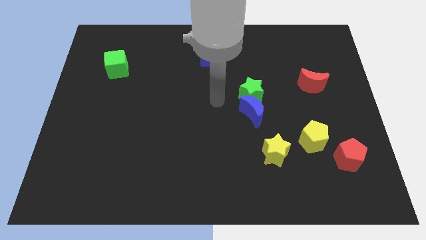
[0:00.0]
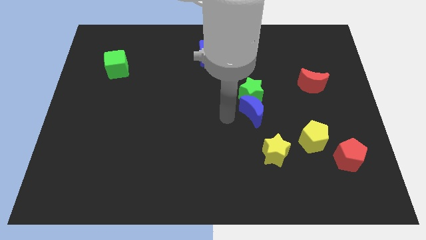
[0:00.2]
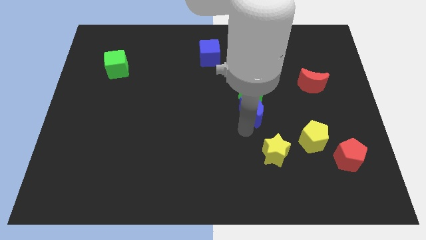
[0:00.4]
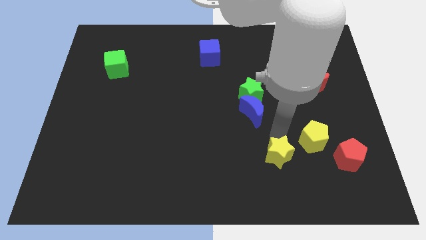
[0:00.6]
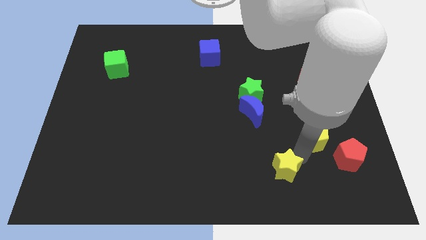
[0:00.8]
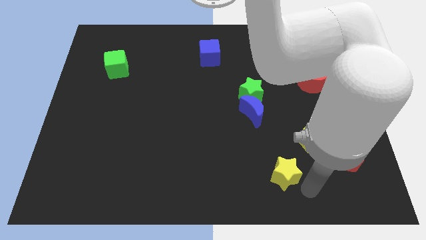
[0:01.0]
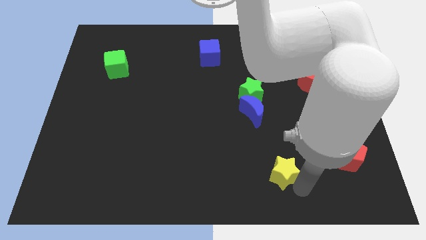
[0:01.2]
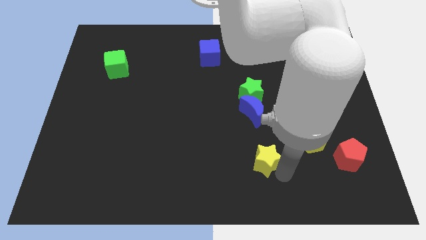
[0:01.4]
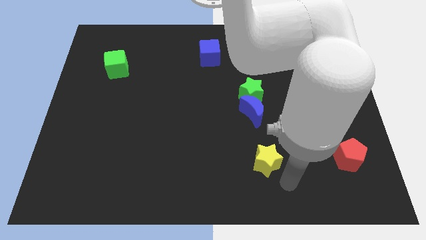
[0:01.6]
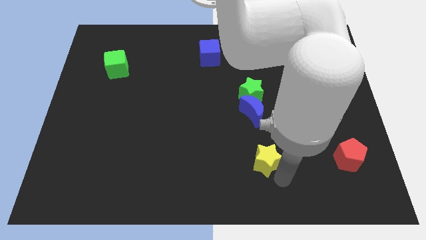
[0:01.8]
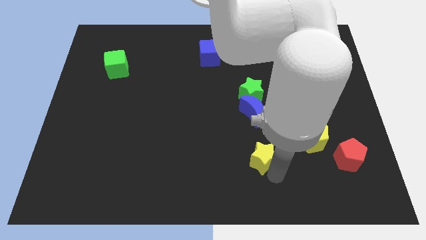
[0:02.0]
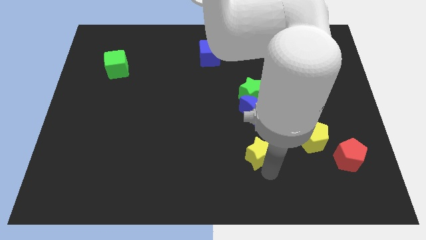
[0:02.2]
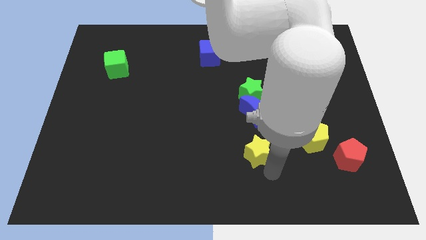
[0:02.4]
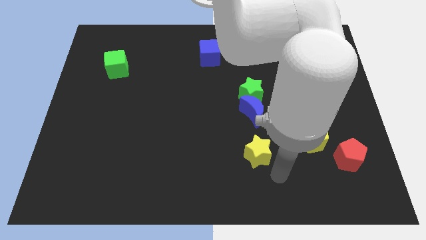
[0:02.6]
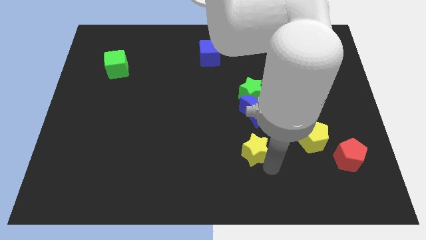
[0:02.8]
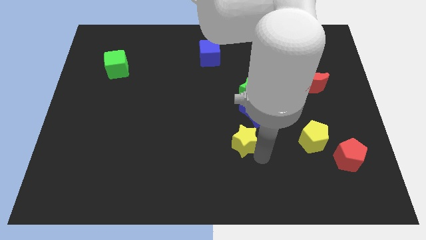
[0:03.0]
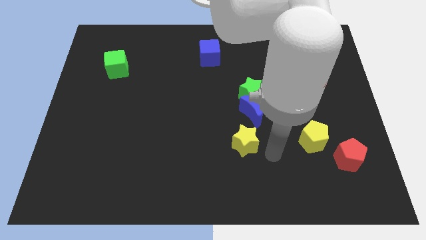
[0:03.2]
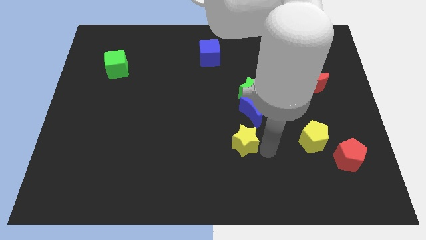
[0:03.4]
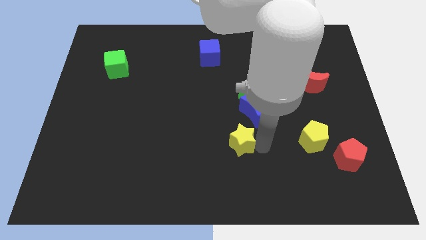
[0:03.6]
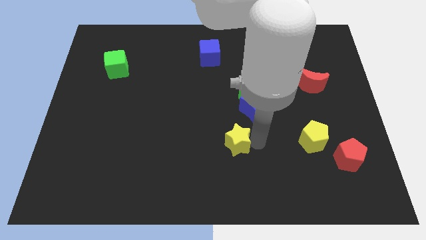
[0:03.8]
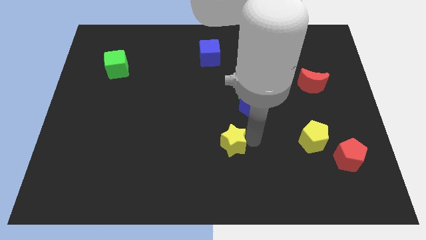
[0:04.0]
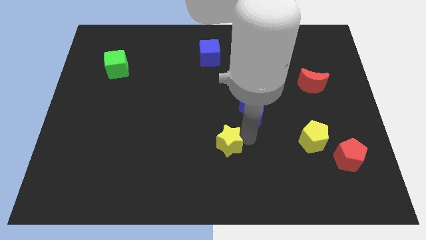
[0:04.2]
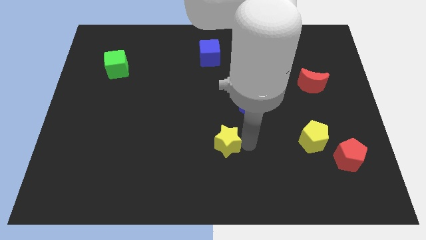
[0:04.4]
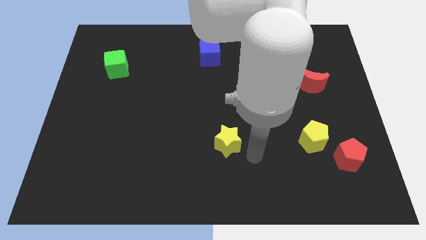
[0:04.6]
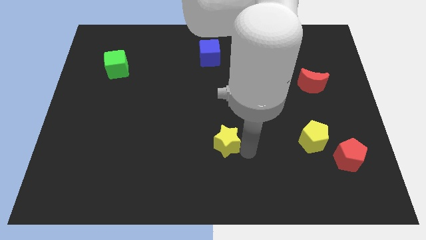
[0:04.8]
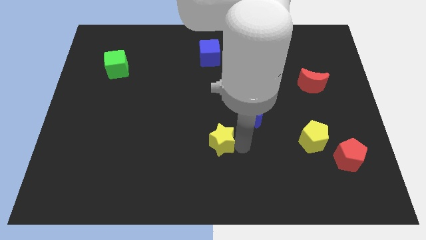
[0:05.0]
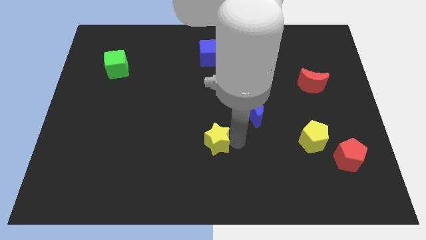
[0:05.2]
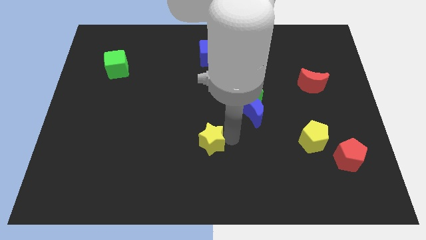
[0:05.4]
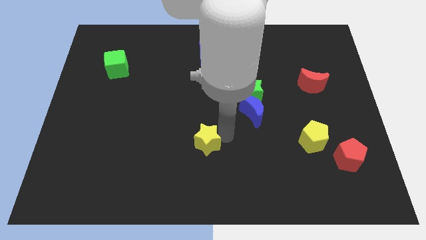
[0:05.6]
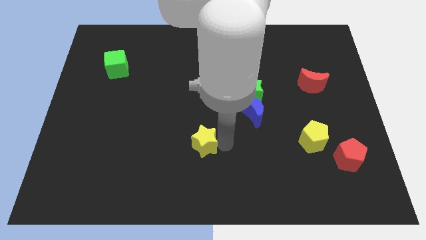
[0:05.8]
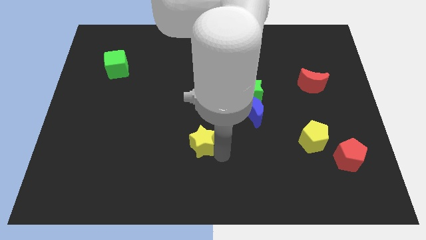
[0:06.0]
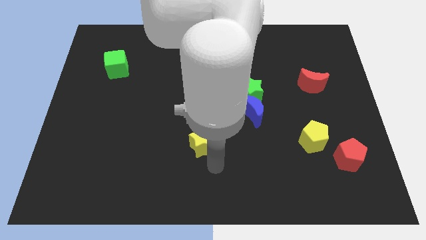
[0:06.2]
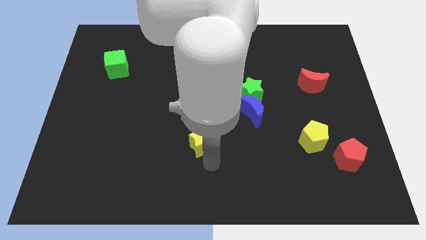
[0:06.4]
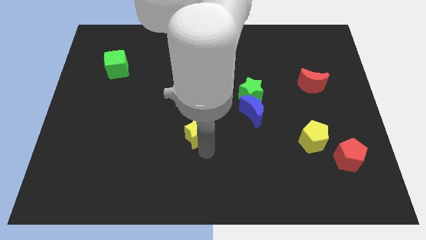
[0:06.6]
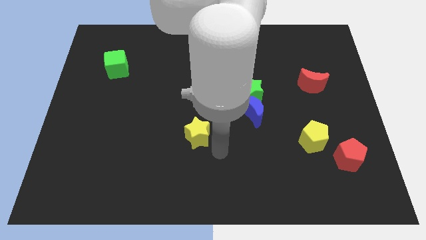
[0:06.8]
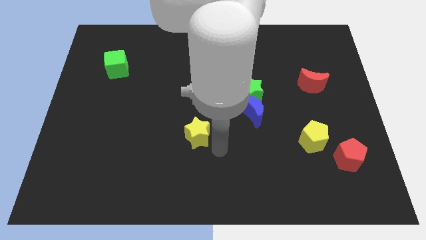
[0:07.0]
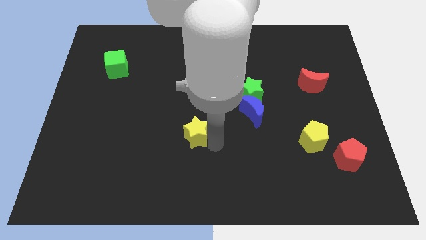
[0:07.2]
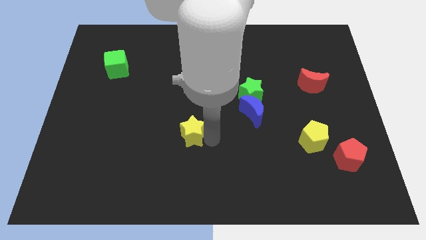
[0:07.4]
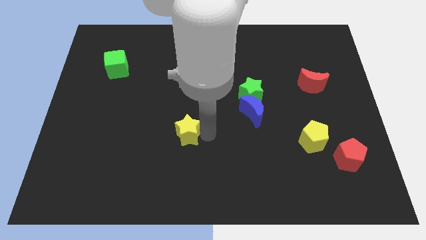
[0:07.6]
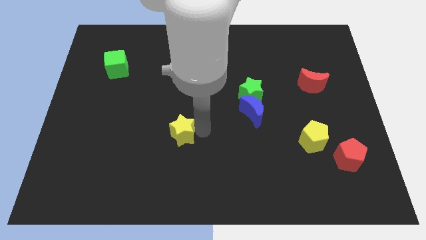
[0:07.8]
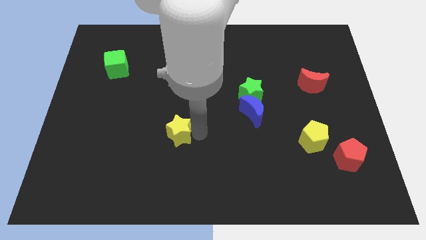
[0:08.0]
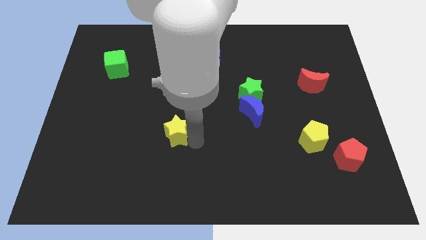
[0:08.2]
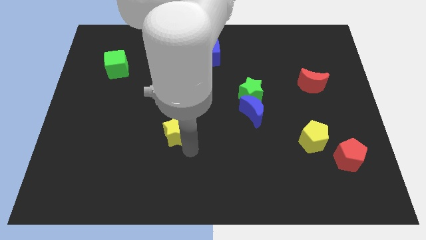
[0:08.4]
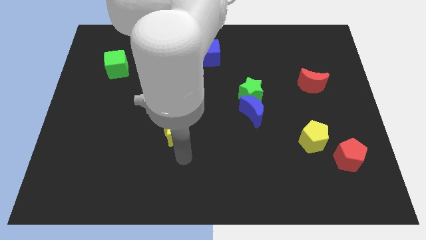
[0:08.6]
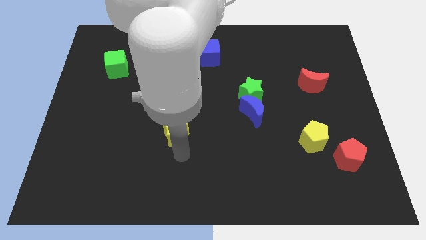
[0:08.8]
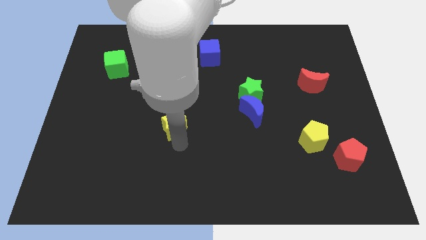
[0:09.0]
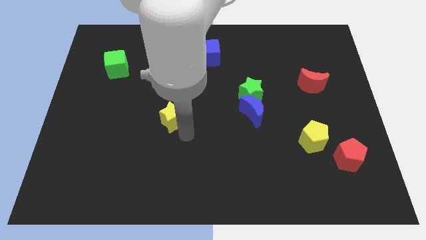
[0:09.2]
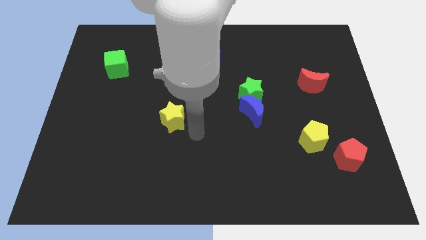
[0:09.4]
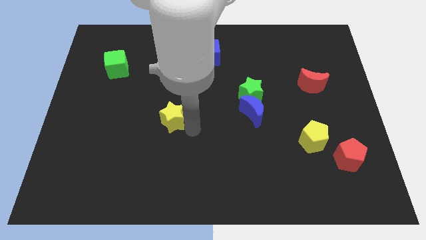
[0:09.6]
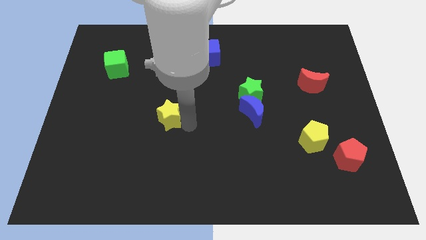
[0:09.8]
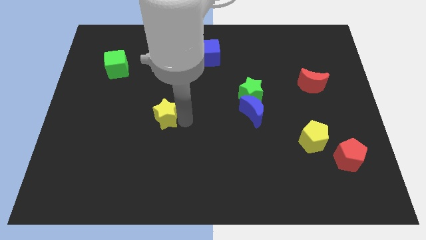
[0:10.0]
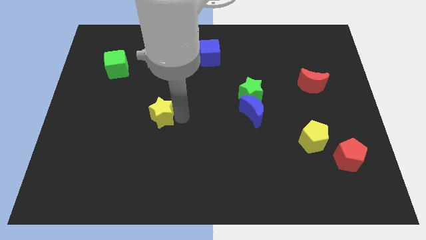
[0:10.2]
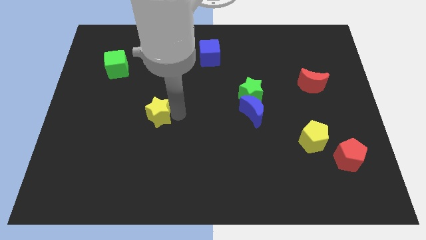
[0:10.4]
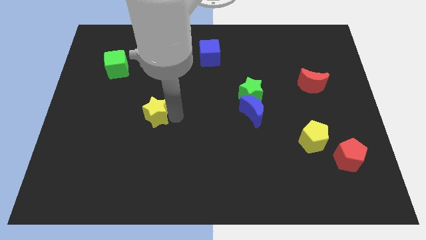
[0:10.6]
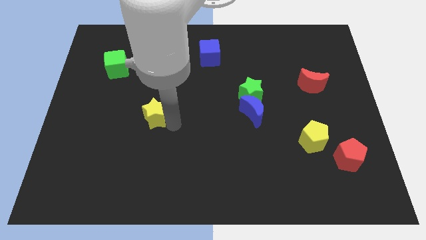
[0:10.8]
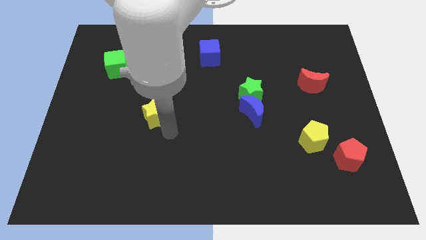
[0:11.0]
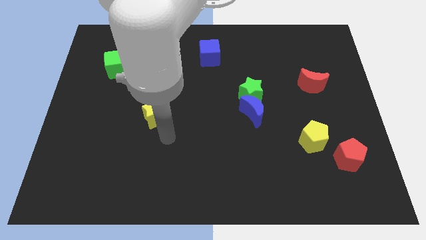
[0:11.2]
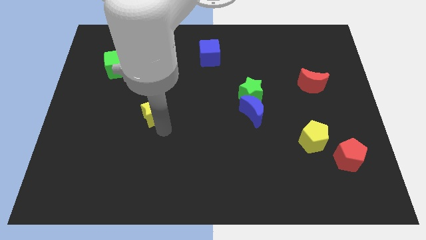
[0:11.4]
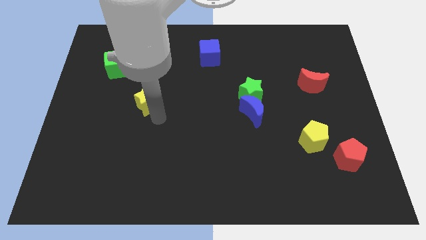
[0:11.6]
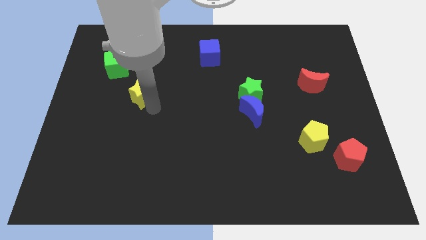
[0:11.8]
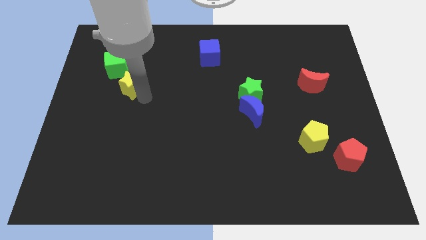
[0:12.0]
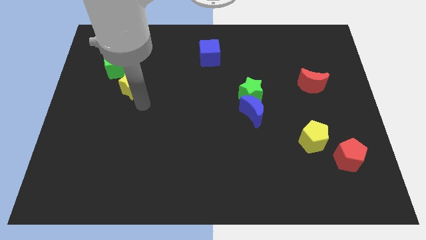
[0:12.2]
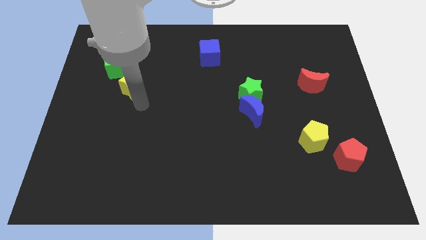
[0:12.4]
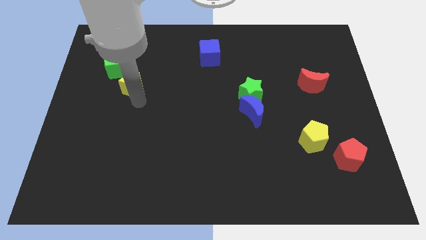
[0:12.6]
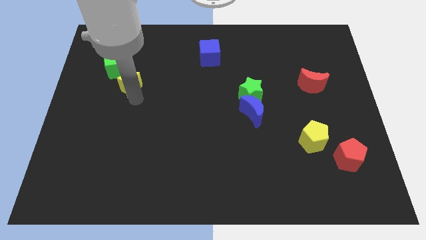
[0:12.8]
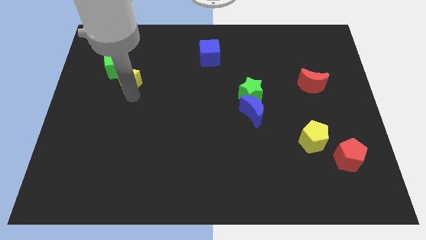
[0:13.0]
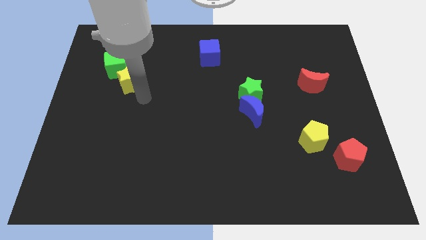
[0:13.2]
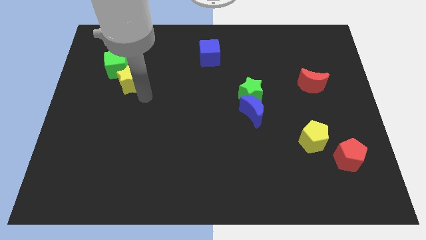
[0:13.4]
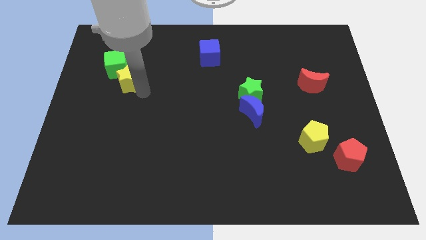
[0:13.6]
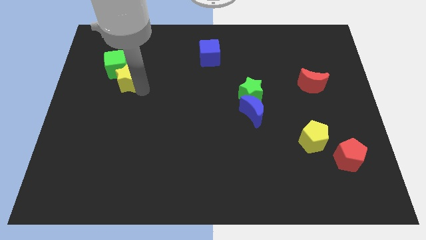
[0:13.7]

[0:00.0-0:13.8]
move the yellow star close to the green cube
